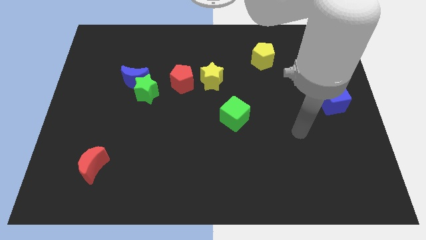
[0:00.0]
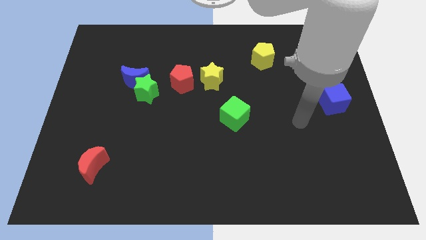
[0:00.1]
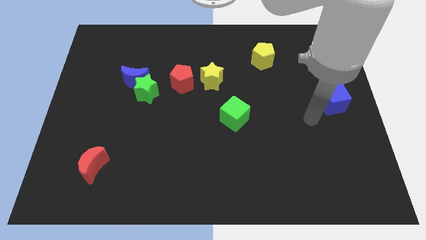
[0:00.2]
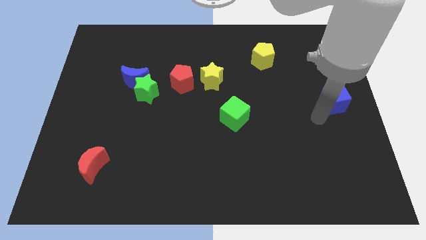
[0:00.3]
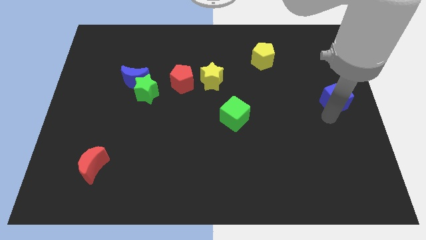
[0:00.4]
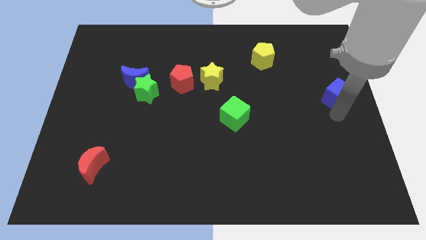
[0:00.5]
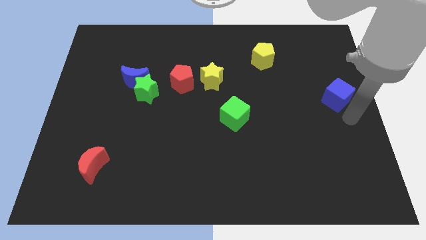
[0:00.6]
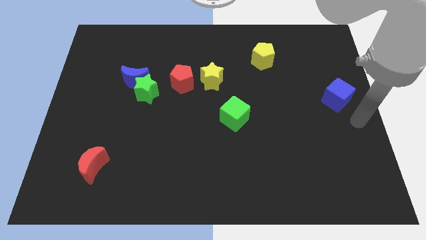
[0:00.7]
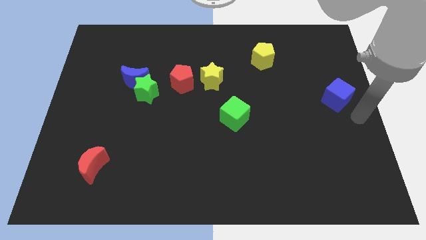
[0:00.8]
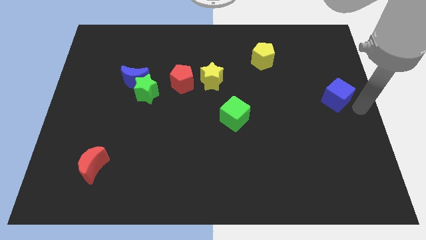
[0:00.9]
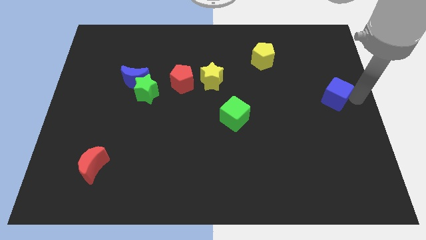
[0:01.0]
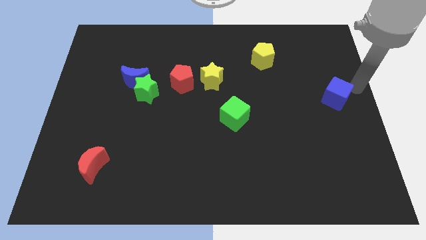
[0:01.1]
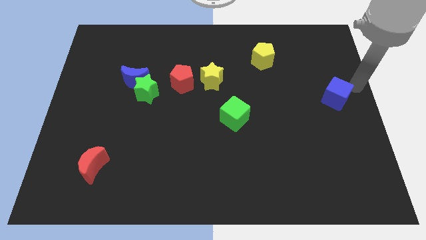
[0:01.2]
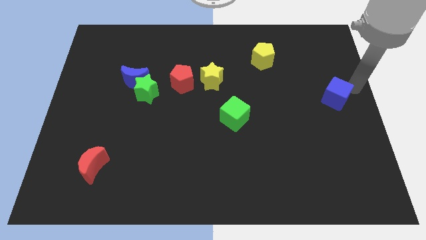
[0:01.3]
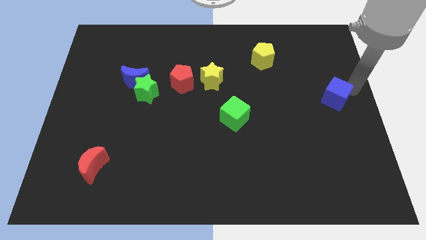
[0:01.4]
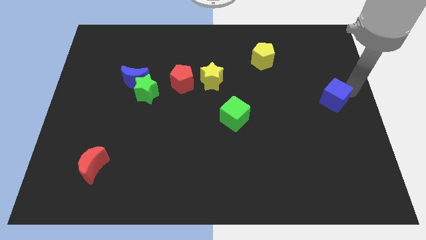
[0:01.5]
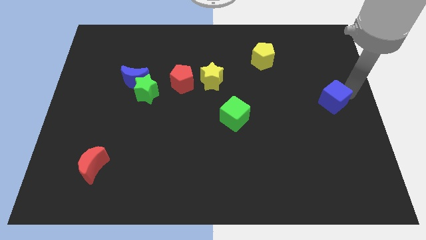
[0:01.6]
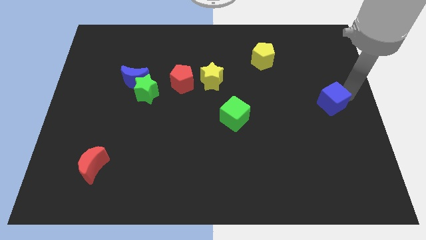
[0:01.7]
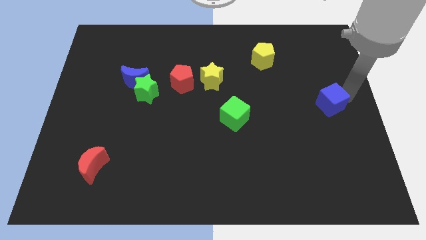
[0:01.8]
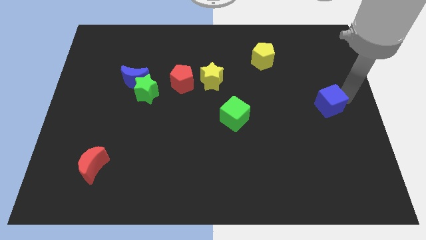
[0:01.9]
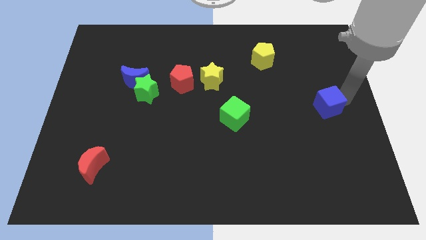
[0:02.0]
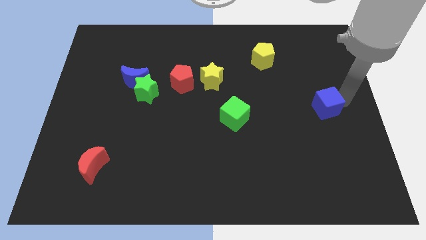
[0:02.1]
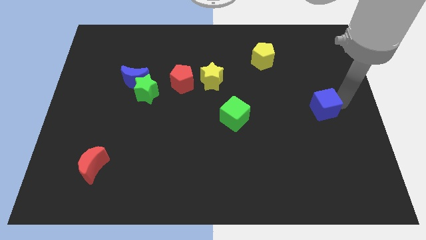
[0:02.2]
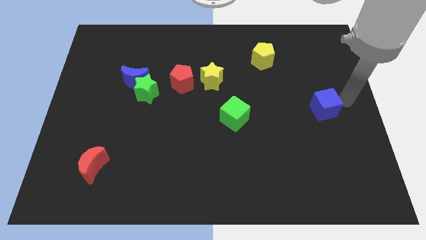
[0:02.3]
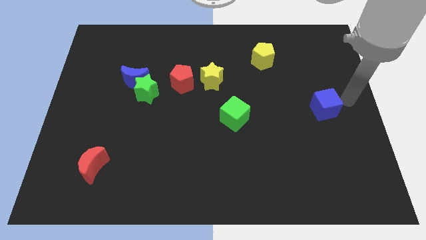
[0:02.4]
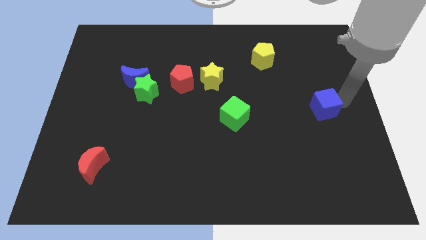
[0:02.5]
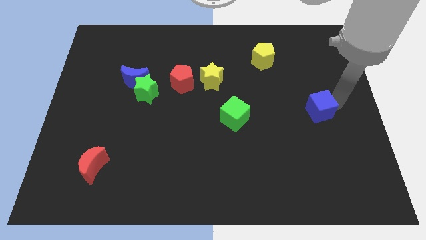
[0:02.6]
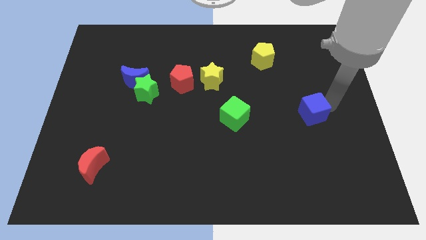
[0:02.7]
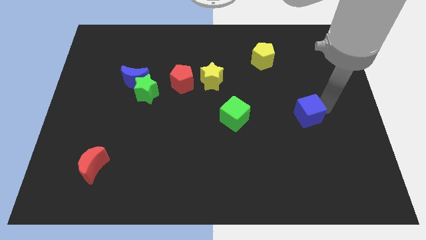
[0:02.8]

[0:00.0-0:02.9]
slightly push the blue cube down and left diagonally

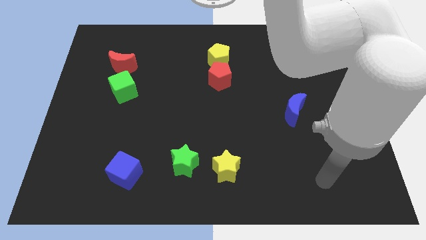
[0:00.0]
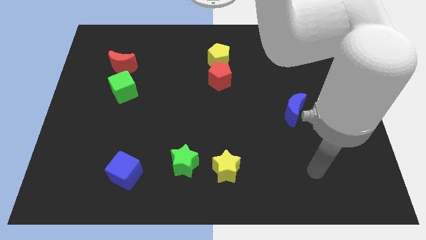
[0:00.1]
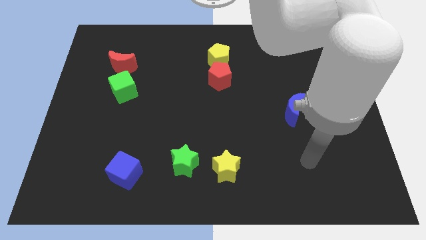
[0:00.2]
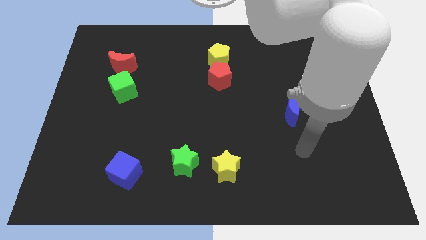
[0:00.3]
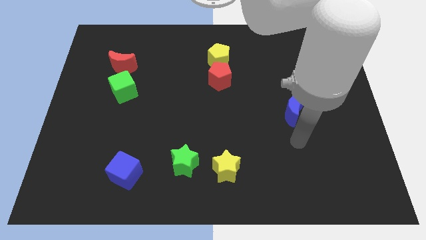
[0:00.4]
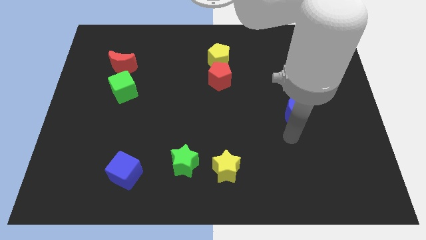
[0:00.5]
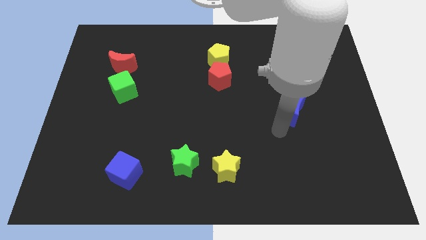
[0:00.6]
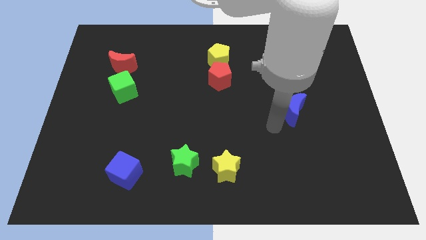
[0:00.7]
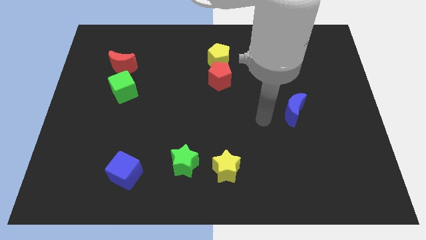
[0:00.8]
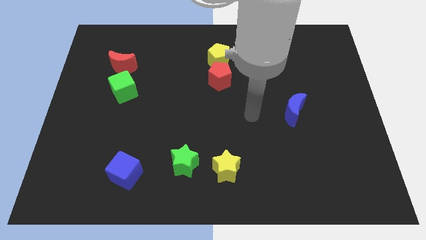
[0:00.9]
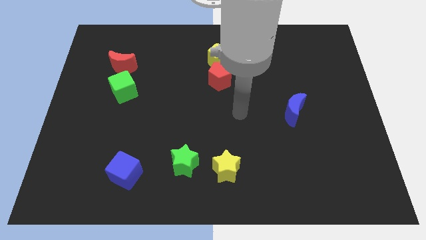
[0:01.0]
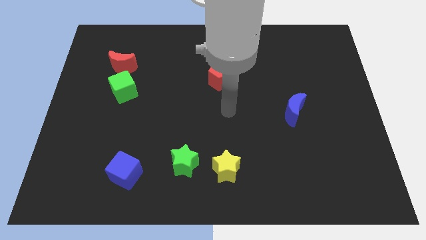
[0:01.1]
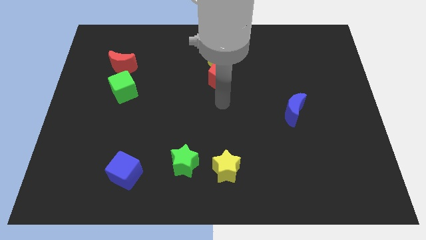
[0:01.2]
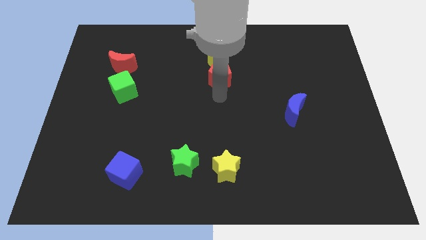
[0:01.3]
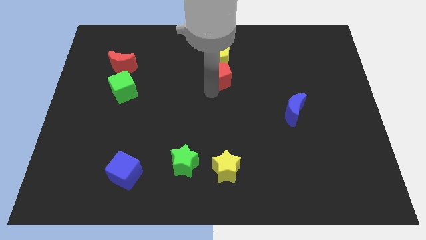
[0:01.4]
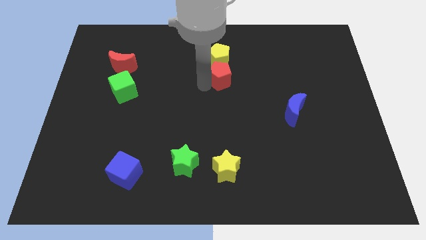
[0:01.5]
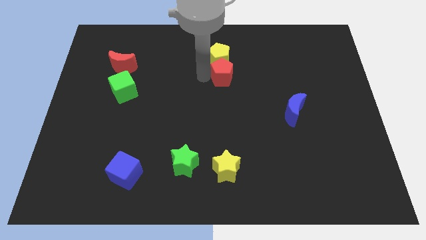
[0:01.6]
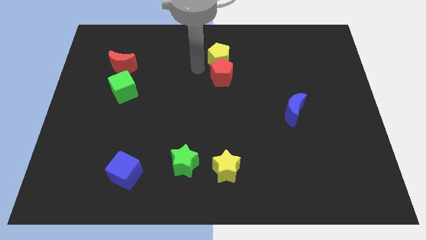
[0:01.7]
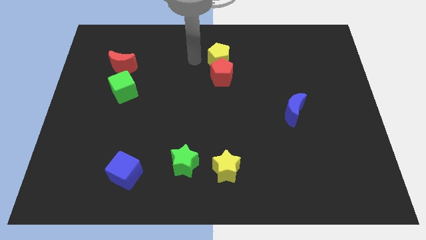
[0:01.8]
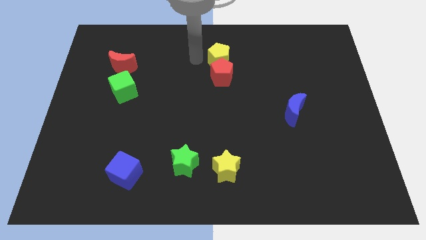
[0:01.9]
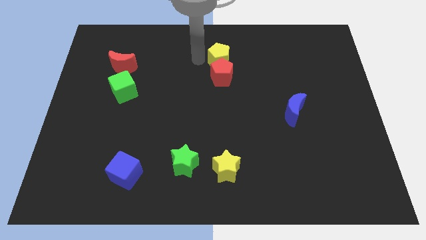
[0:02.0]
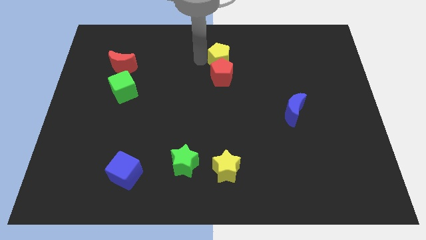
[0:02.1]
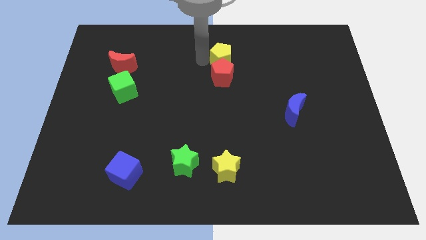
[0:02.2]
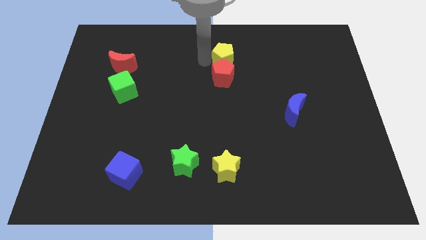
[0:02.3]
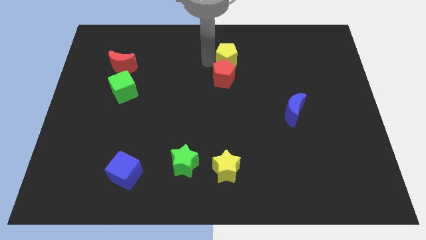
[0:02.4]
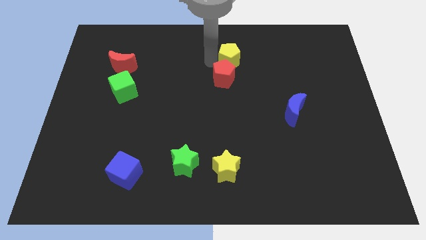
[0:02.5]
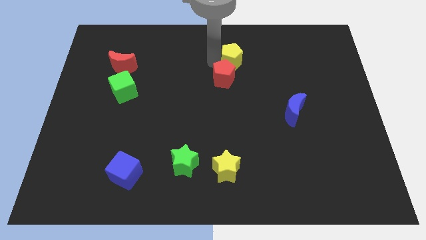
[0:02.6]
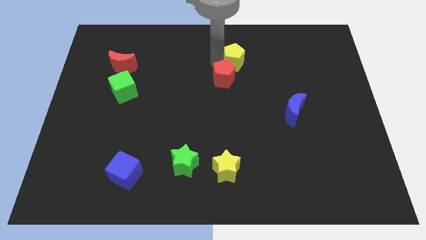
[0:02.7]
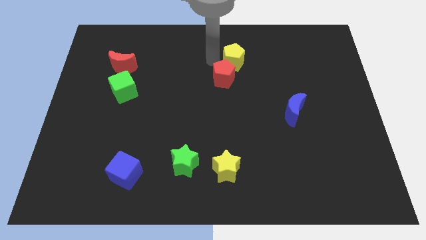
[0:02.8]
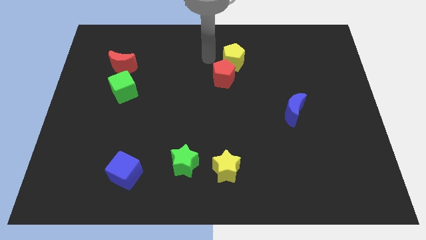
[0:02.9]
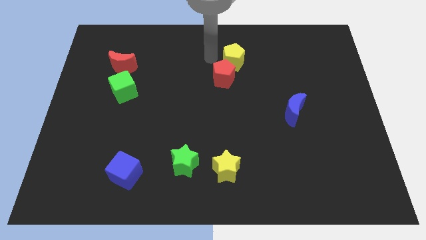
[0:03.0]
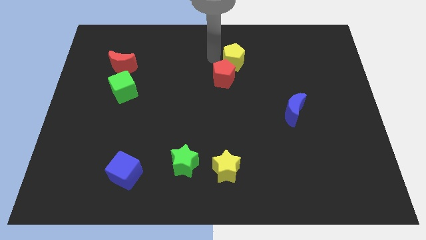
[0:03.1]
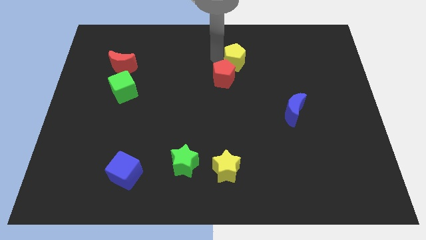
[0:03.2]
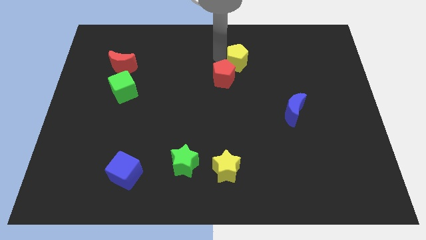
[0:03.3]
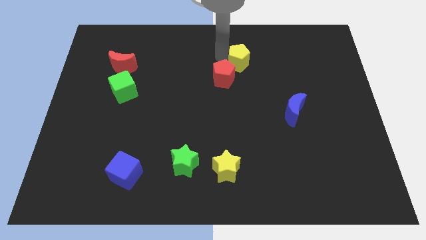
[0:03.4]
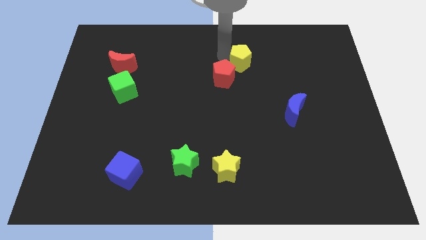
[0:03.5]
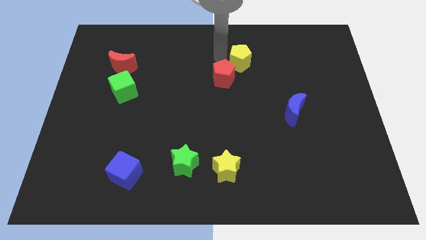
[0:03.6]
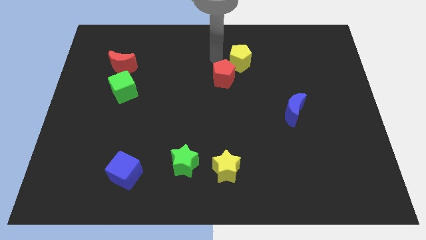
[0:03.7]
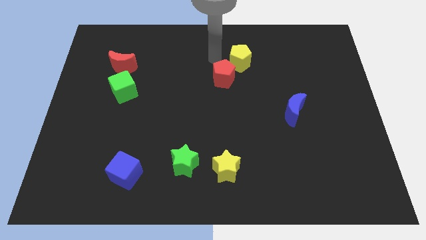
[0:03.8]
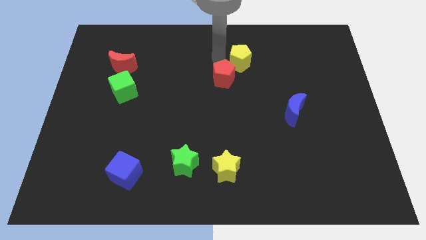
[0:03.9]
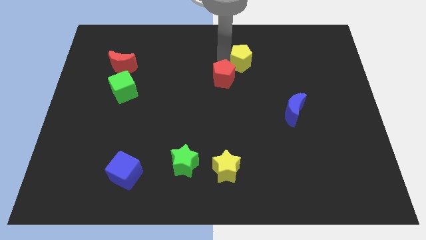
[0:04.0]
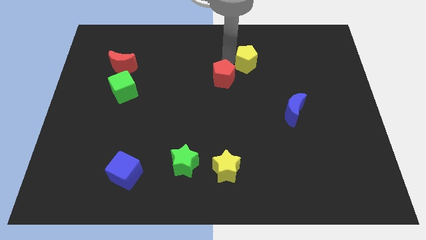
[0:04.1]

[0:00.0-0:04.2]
slide the yellow pentagon slightly to the right

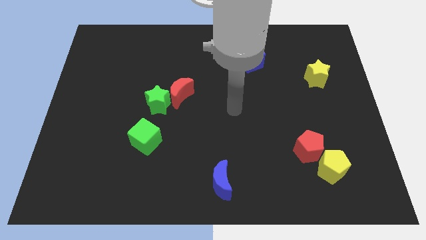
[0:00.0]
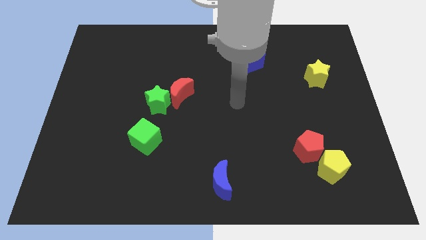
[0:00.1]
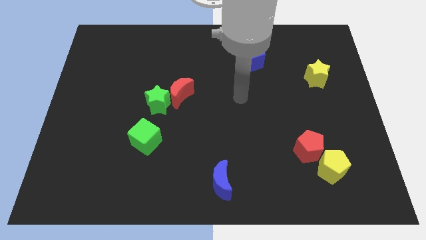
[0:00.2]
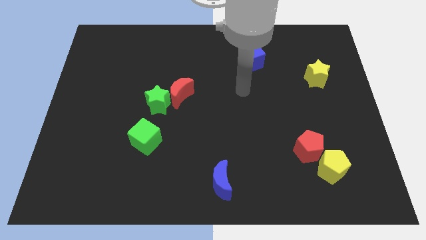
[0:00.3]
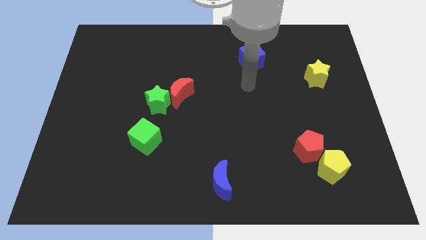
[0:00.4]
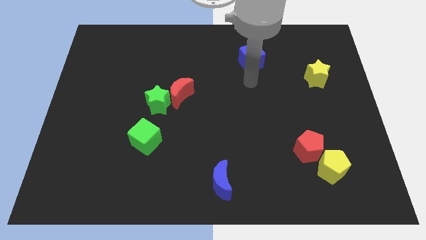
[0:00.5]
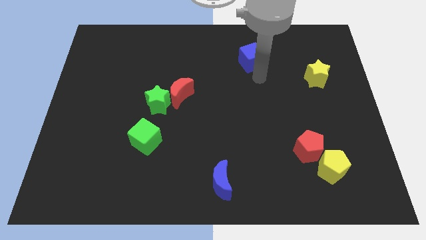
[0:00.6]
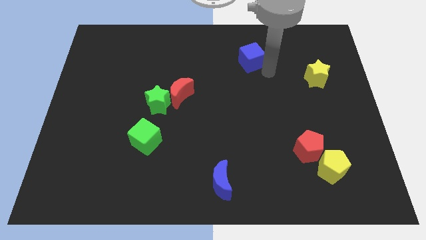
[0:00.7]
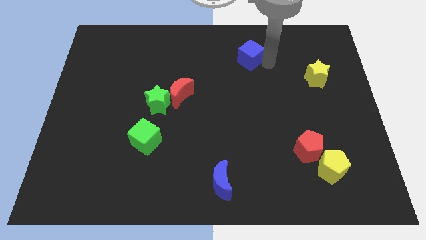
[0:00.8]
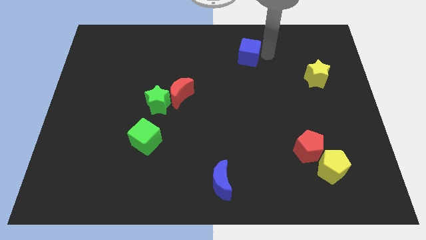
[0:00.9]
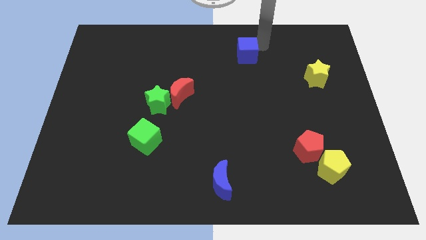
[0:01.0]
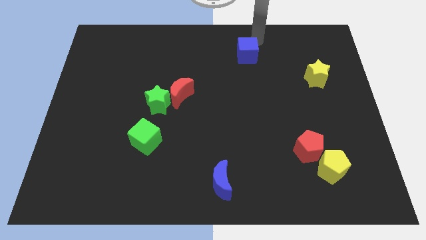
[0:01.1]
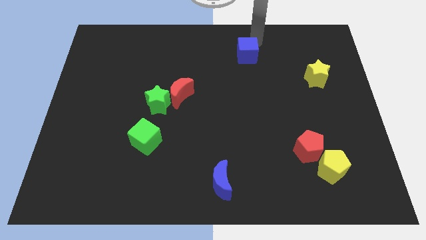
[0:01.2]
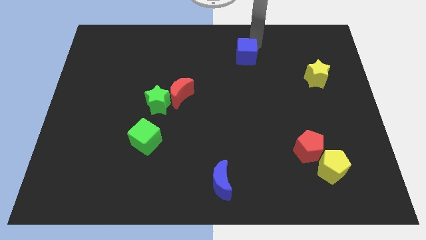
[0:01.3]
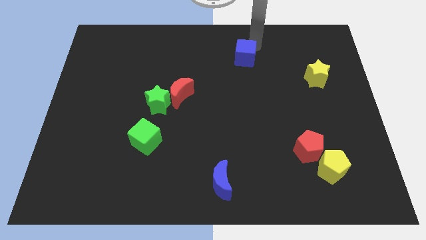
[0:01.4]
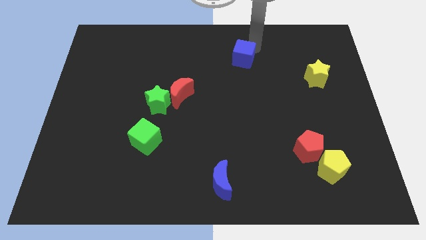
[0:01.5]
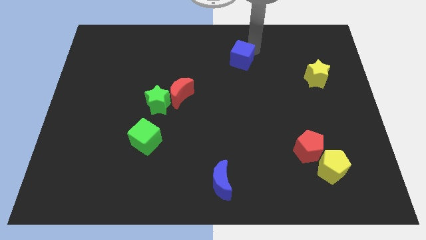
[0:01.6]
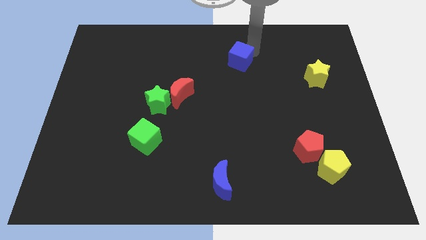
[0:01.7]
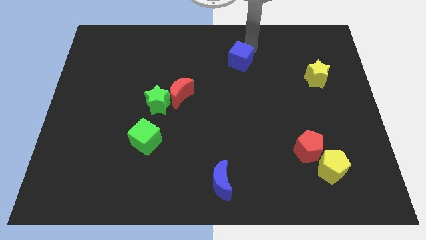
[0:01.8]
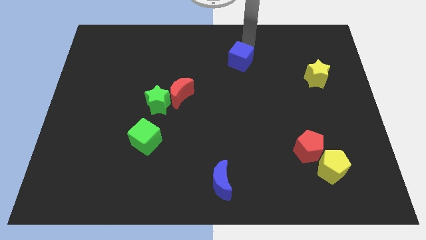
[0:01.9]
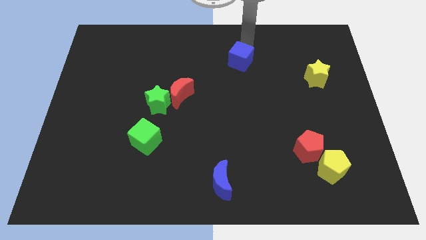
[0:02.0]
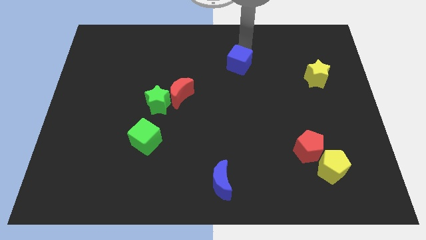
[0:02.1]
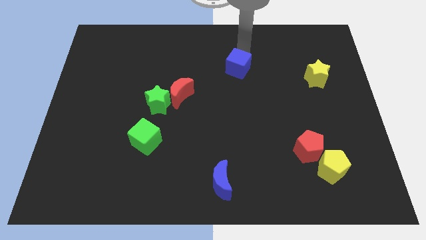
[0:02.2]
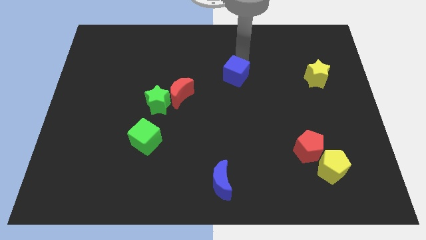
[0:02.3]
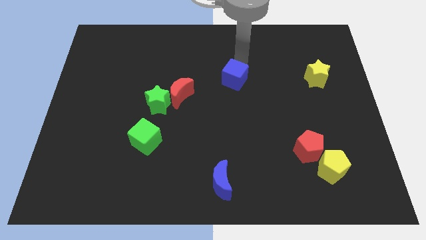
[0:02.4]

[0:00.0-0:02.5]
slide the blue cube down and then left a bit
